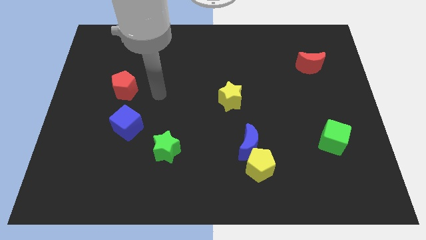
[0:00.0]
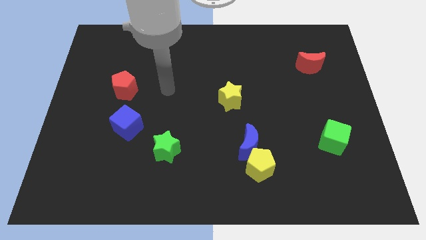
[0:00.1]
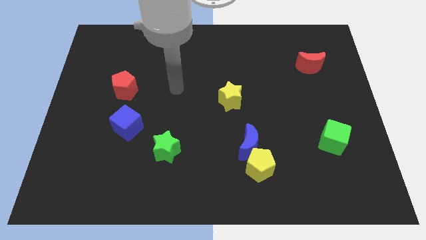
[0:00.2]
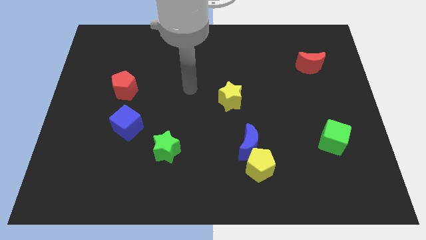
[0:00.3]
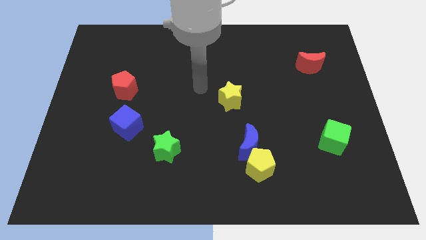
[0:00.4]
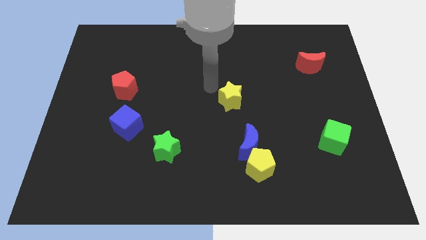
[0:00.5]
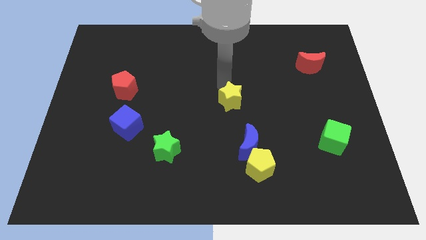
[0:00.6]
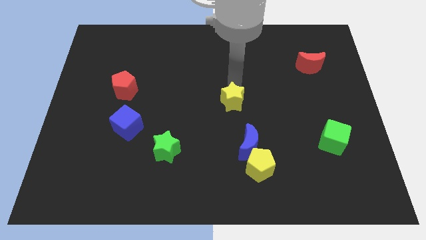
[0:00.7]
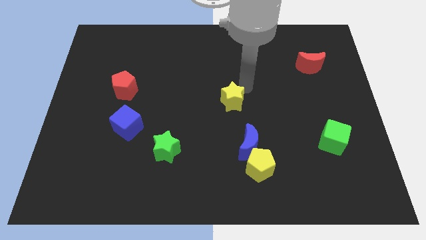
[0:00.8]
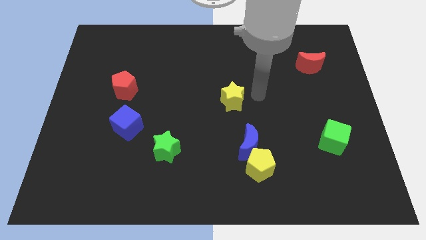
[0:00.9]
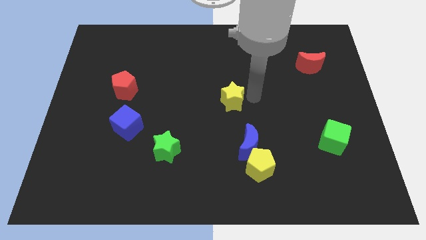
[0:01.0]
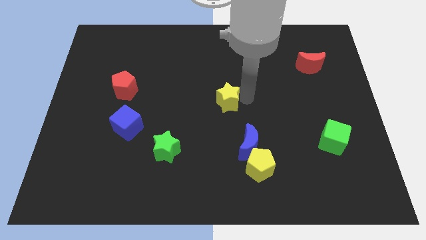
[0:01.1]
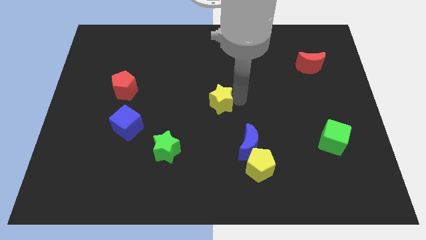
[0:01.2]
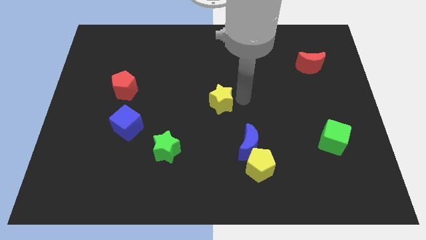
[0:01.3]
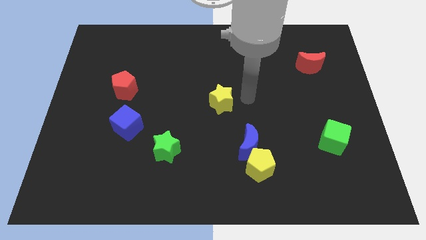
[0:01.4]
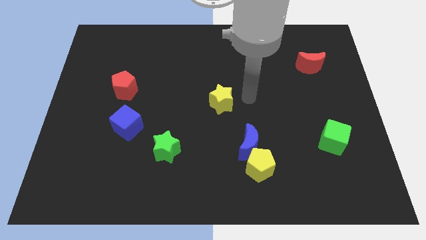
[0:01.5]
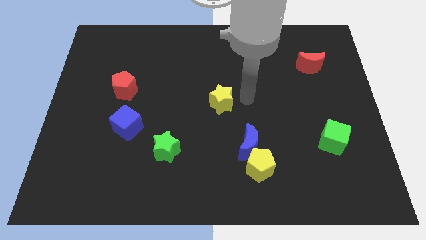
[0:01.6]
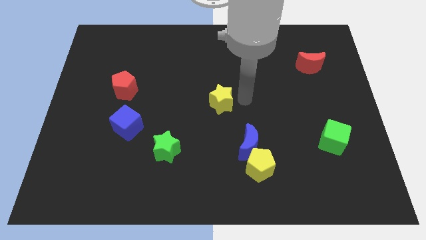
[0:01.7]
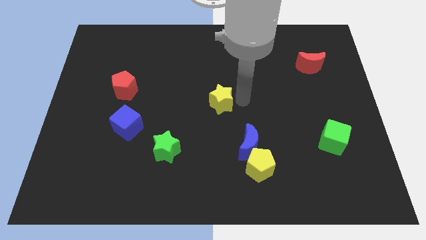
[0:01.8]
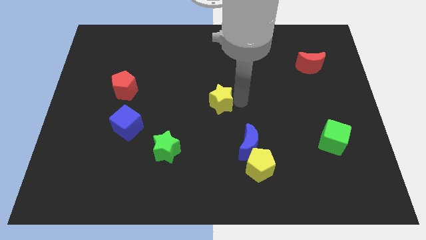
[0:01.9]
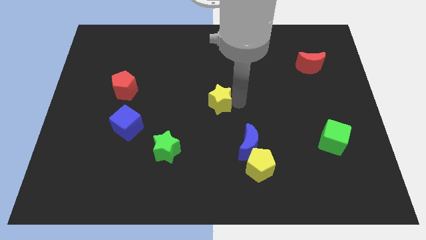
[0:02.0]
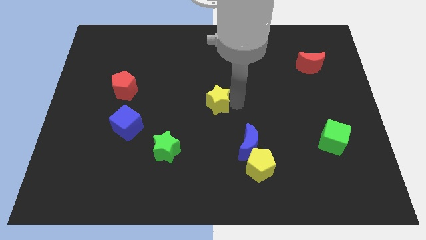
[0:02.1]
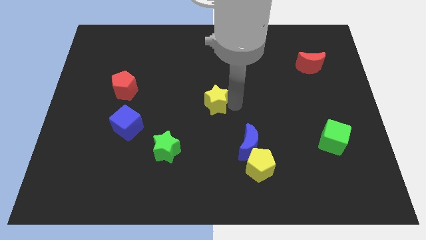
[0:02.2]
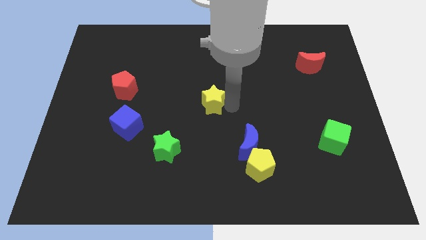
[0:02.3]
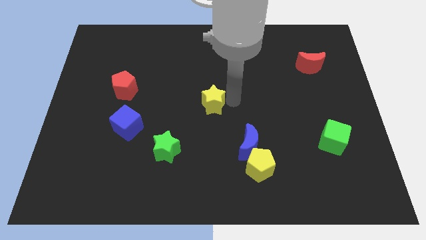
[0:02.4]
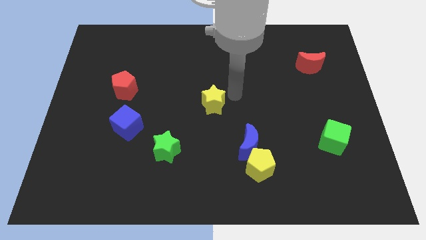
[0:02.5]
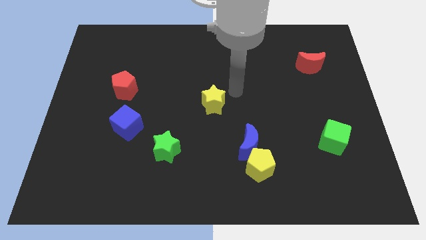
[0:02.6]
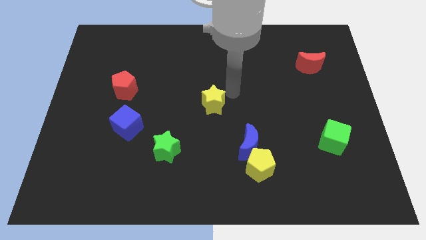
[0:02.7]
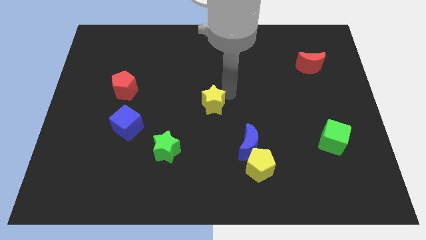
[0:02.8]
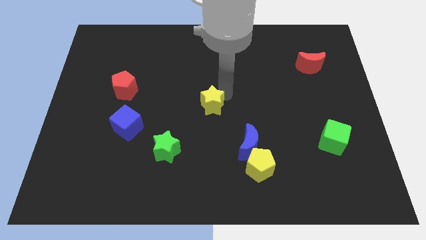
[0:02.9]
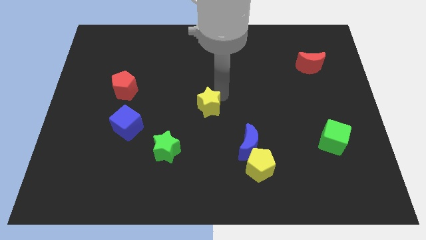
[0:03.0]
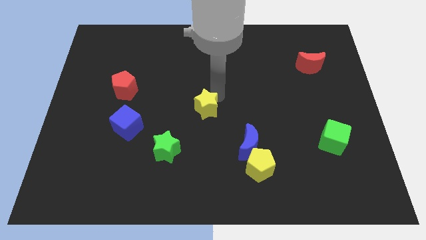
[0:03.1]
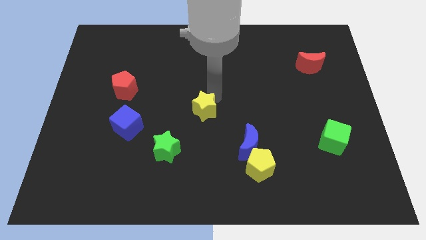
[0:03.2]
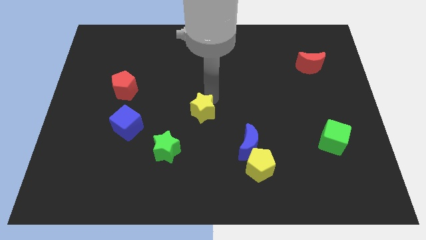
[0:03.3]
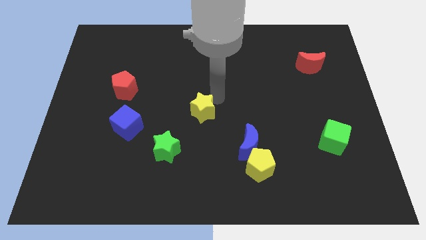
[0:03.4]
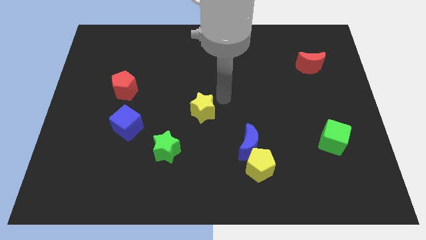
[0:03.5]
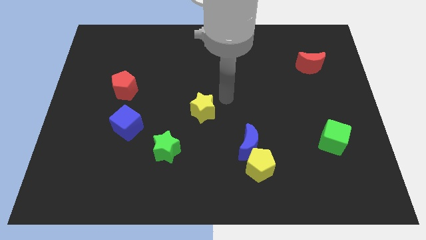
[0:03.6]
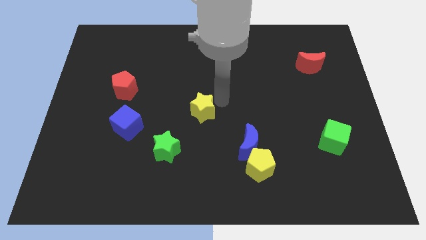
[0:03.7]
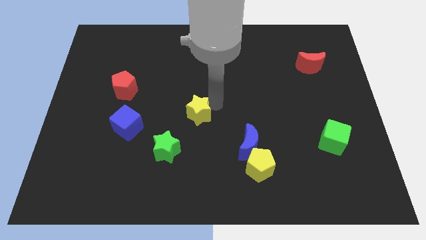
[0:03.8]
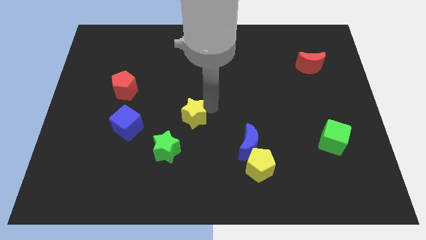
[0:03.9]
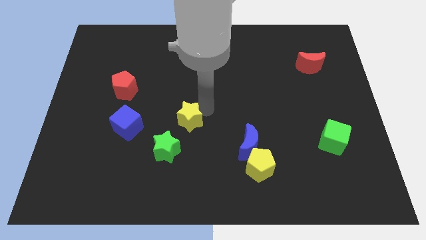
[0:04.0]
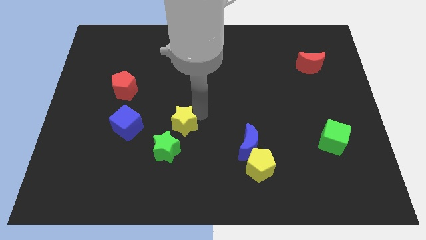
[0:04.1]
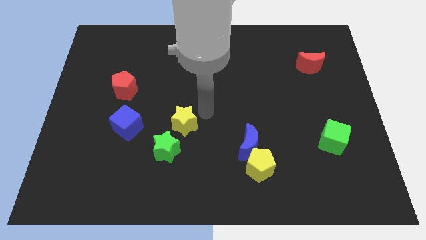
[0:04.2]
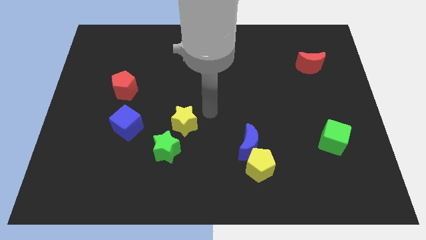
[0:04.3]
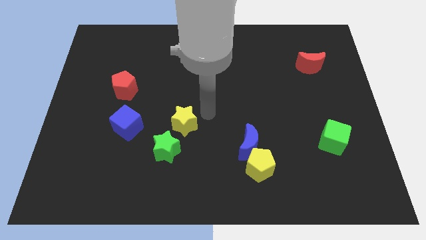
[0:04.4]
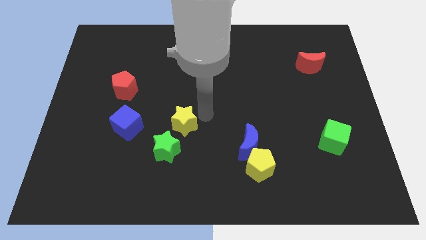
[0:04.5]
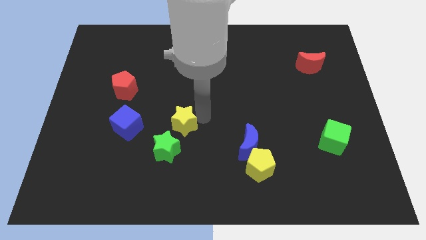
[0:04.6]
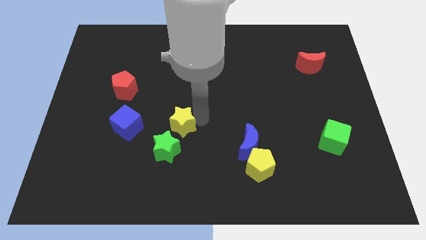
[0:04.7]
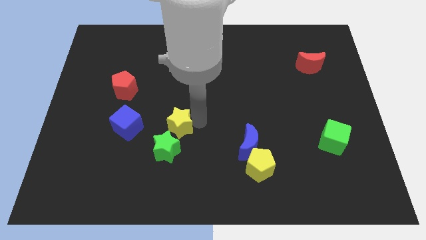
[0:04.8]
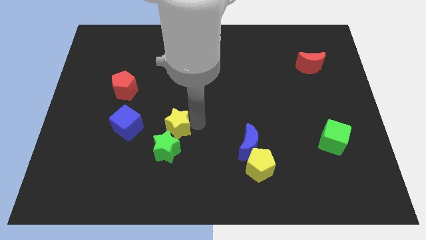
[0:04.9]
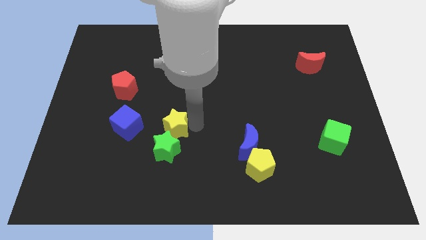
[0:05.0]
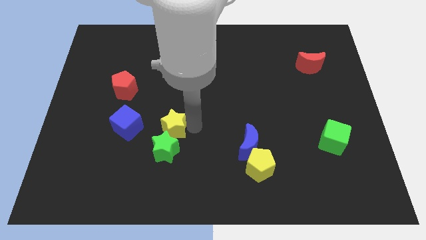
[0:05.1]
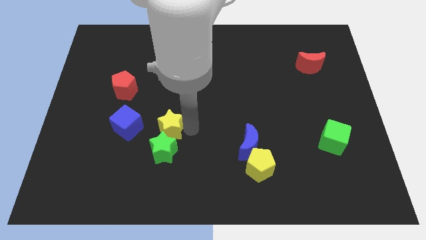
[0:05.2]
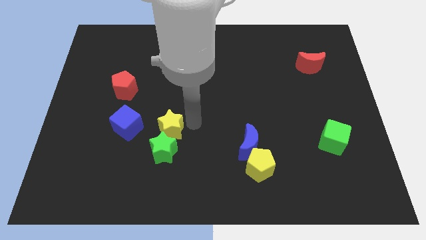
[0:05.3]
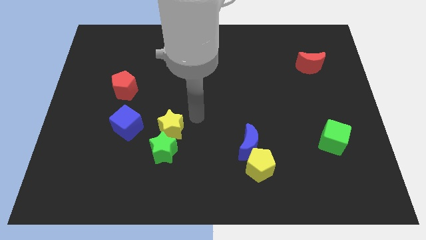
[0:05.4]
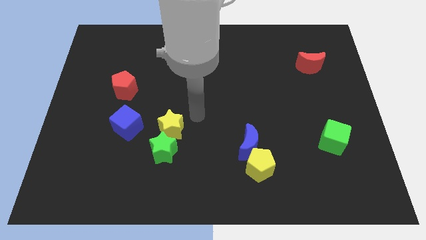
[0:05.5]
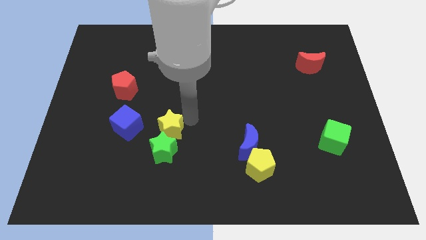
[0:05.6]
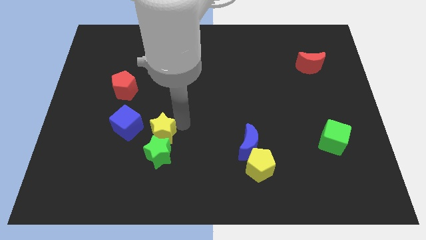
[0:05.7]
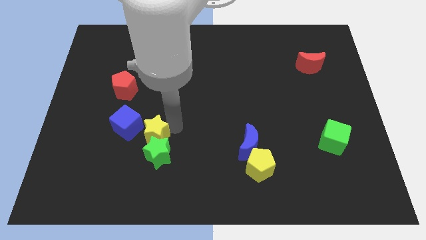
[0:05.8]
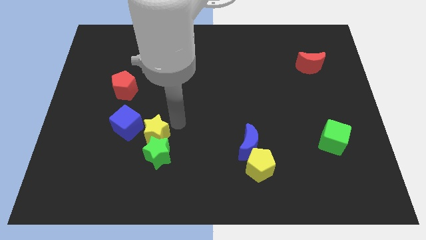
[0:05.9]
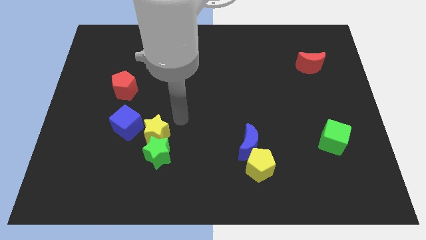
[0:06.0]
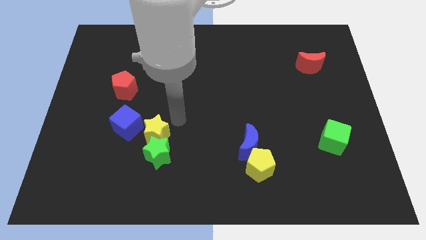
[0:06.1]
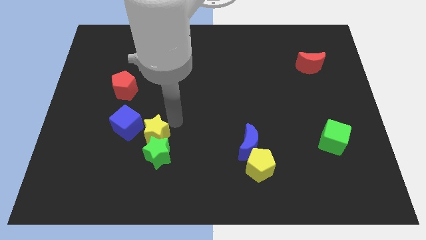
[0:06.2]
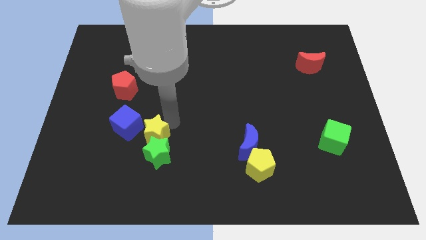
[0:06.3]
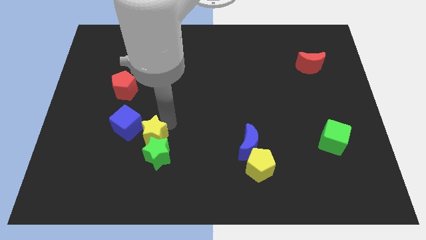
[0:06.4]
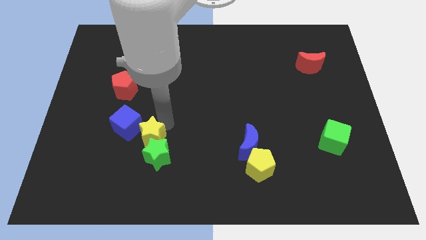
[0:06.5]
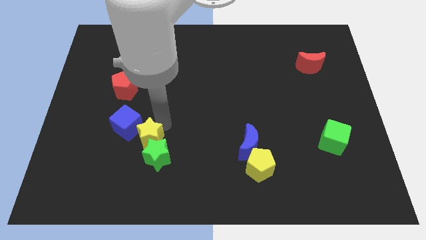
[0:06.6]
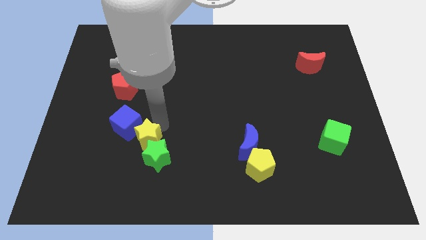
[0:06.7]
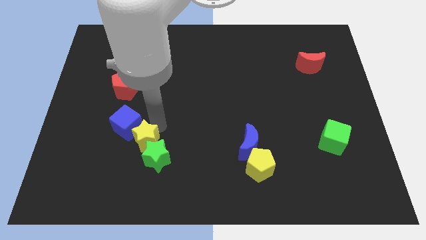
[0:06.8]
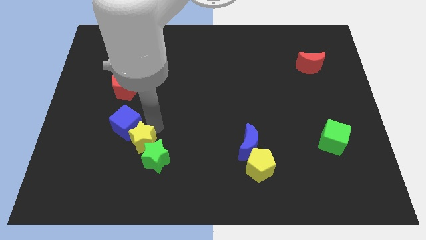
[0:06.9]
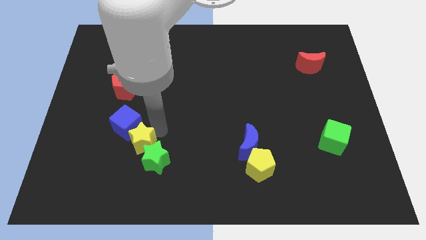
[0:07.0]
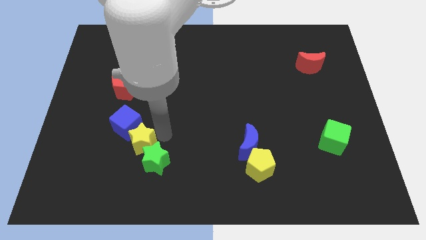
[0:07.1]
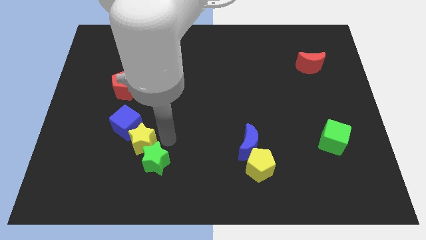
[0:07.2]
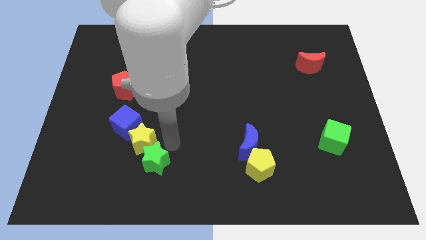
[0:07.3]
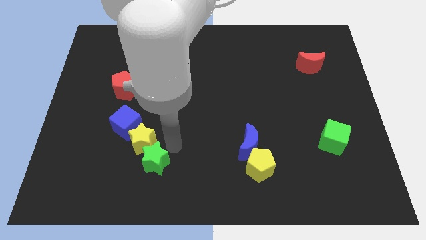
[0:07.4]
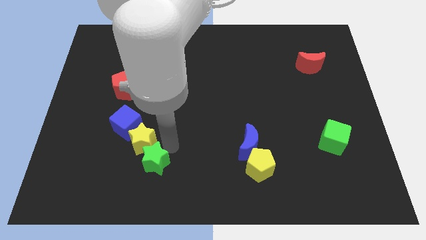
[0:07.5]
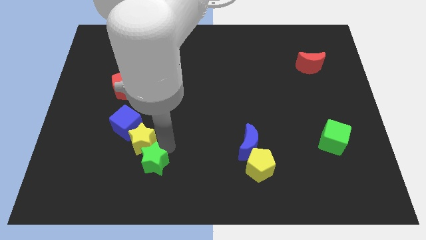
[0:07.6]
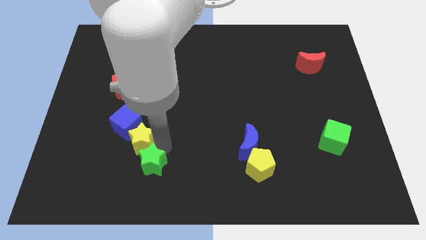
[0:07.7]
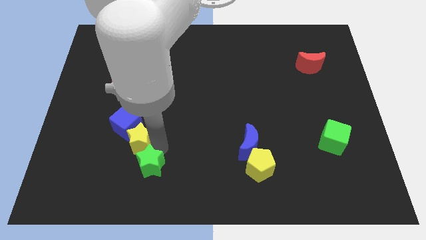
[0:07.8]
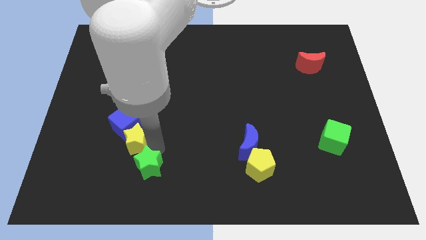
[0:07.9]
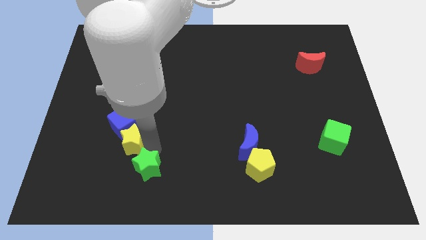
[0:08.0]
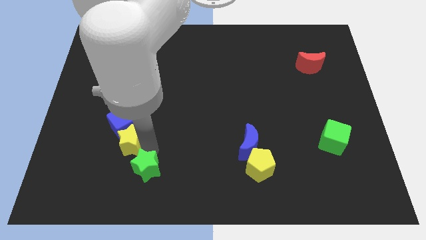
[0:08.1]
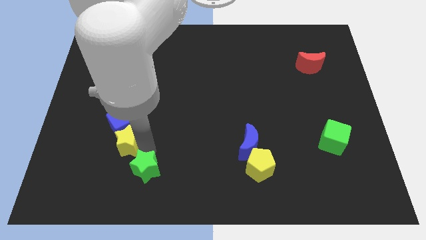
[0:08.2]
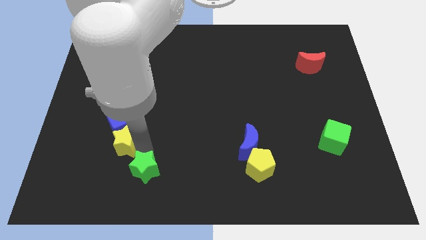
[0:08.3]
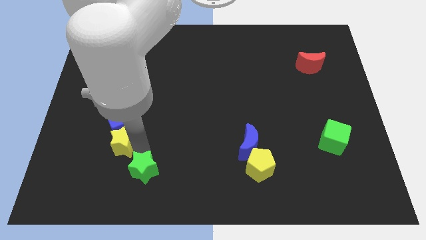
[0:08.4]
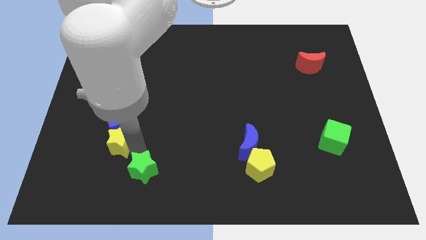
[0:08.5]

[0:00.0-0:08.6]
put the yellow star to the bottom side of the red pentagon
